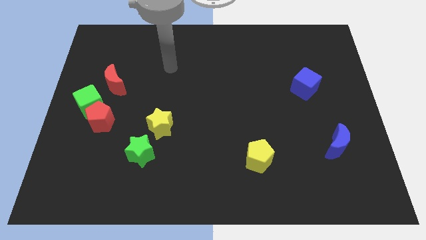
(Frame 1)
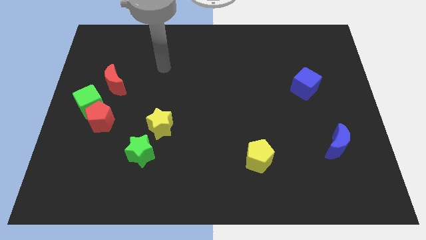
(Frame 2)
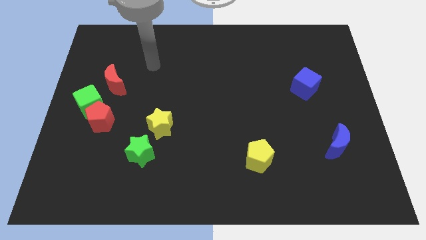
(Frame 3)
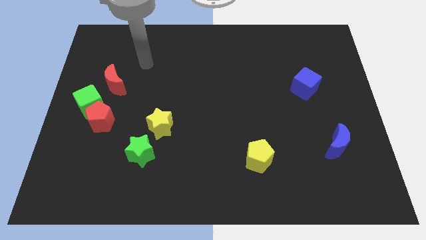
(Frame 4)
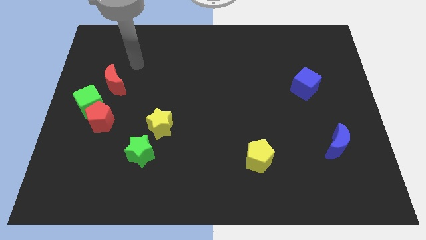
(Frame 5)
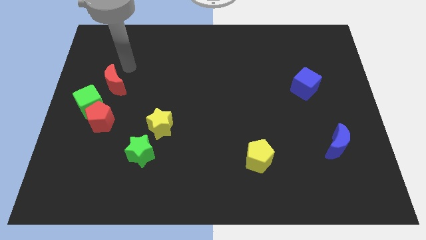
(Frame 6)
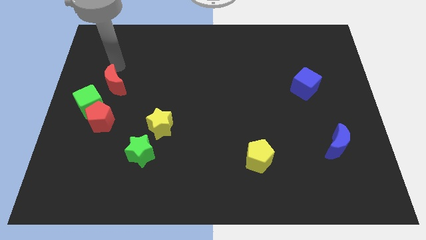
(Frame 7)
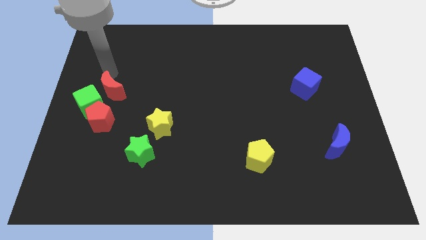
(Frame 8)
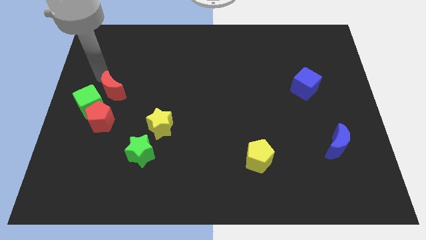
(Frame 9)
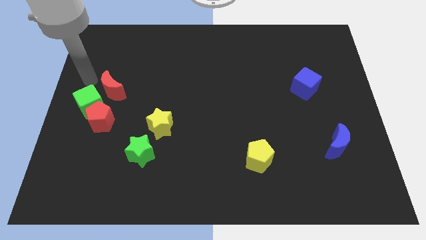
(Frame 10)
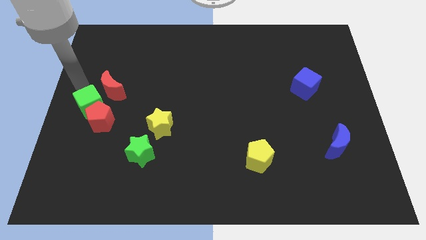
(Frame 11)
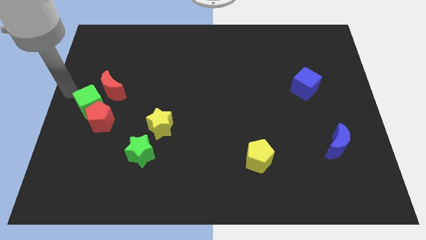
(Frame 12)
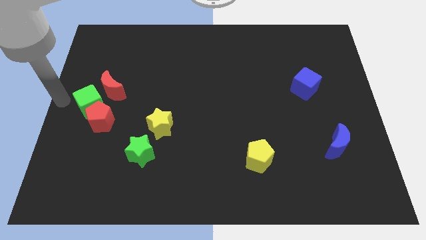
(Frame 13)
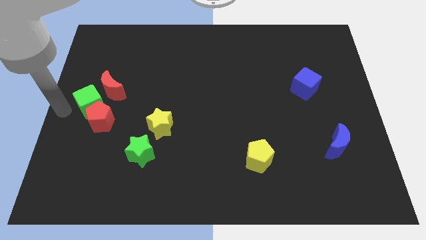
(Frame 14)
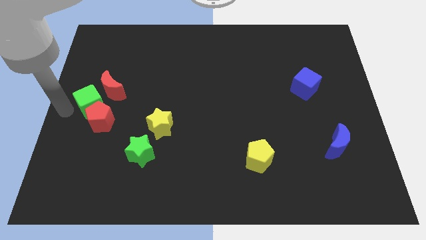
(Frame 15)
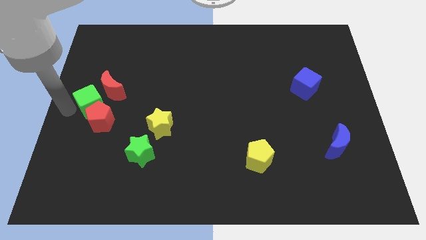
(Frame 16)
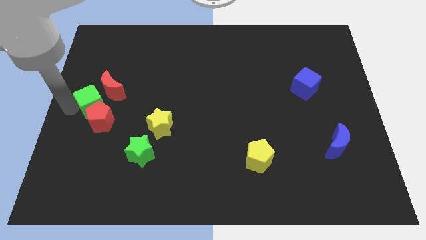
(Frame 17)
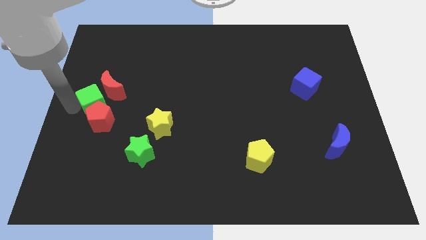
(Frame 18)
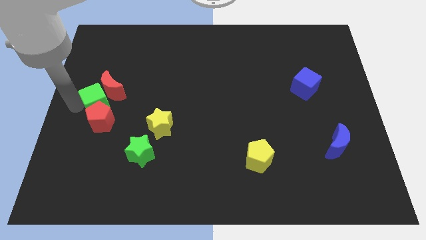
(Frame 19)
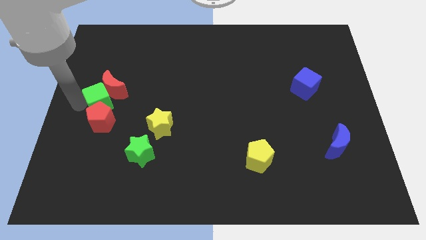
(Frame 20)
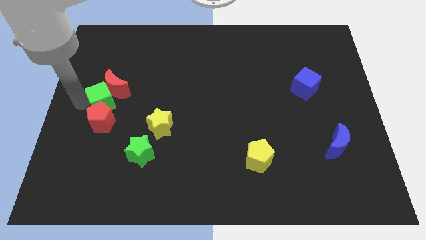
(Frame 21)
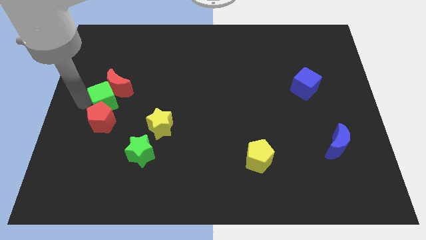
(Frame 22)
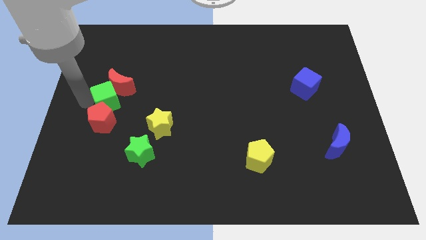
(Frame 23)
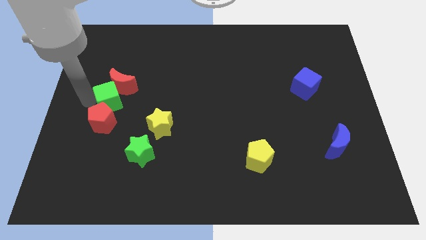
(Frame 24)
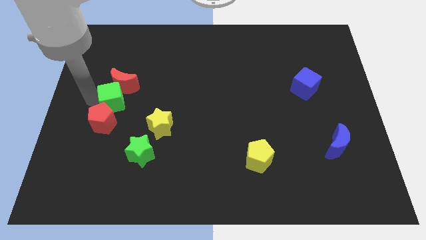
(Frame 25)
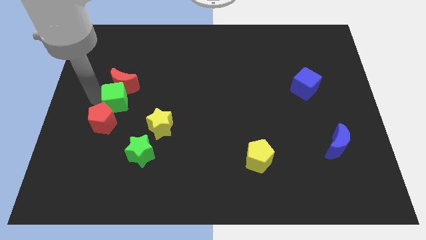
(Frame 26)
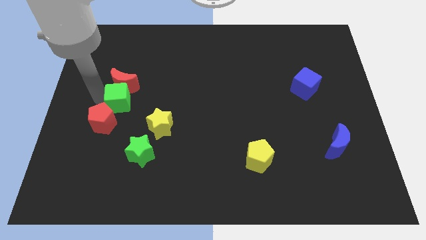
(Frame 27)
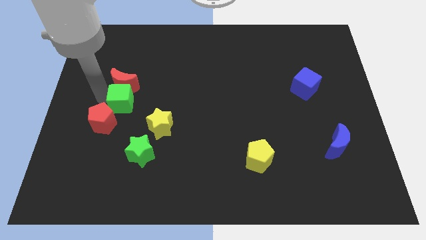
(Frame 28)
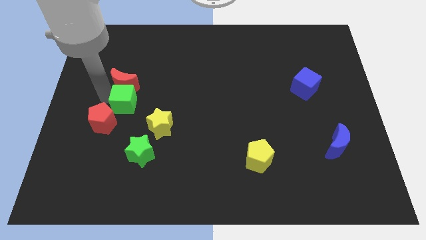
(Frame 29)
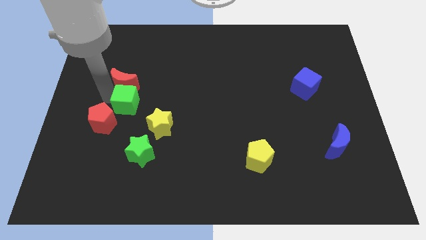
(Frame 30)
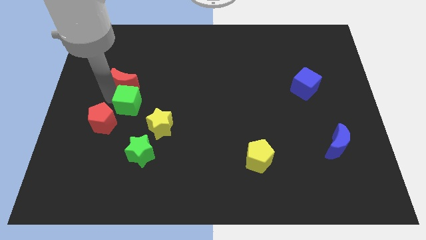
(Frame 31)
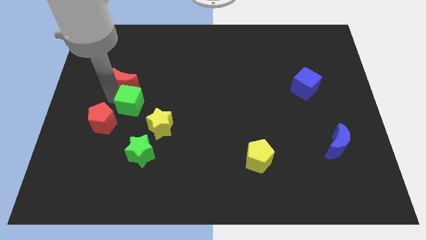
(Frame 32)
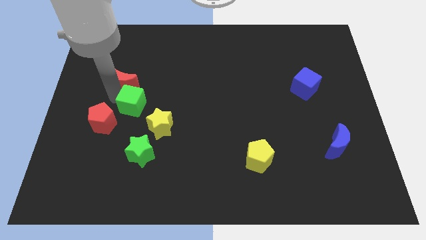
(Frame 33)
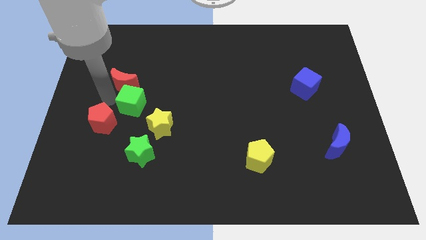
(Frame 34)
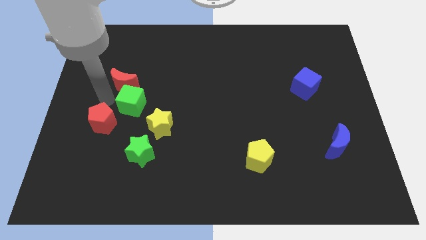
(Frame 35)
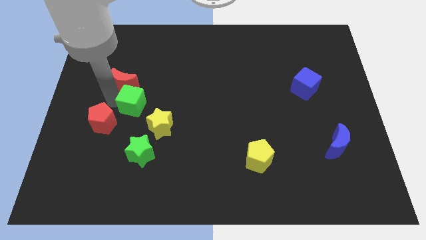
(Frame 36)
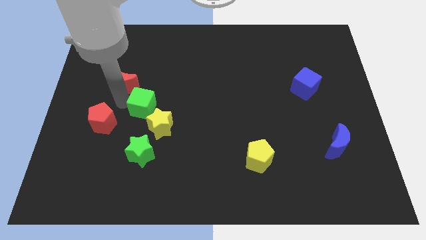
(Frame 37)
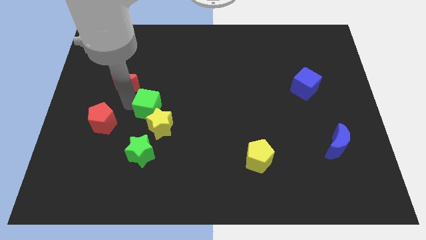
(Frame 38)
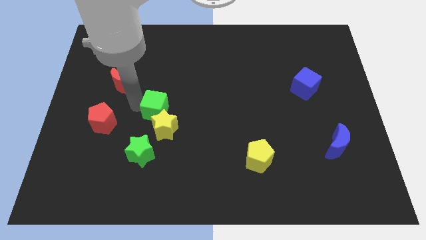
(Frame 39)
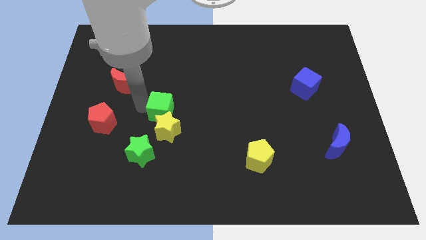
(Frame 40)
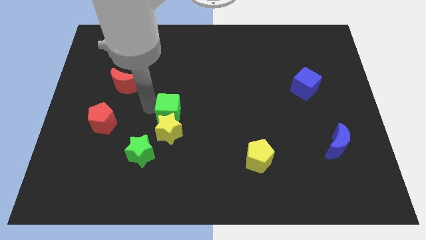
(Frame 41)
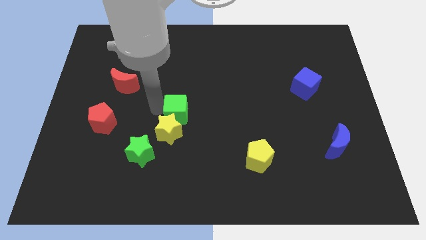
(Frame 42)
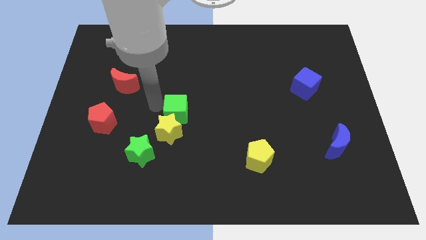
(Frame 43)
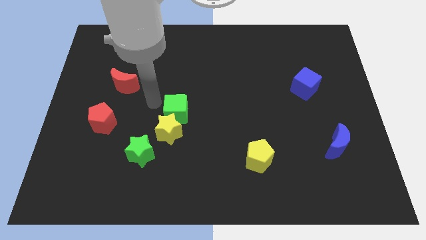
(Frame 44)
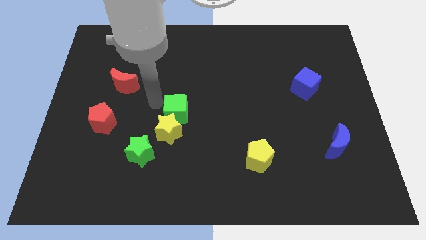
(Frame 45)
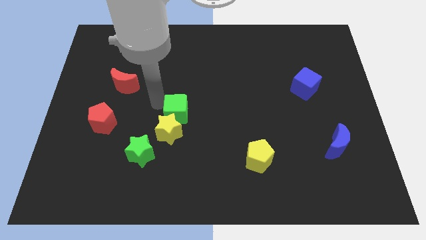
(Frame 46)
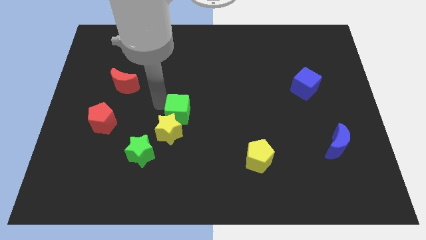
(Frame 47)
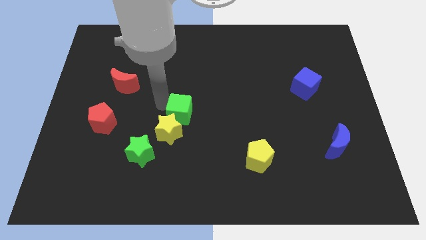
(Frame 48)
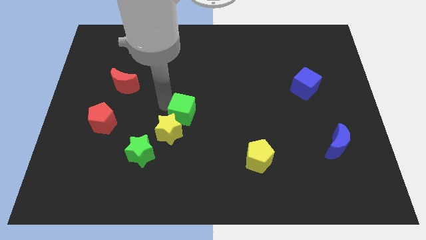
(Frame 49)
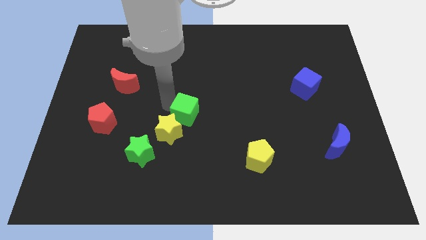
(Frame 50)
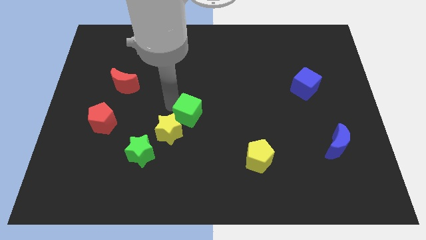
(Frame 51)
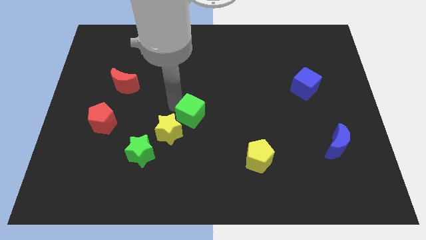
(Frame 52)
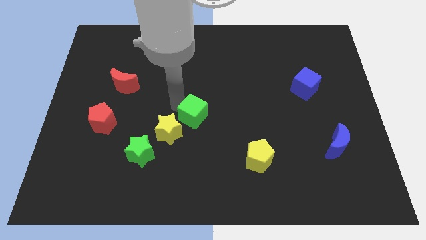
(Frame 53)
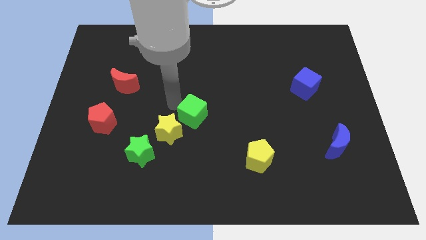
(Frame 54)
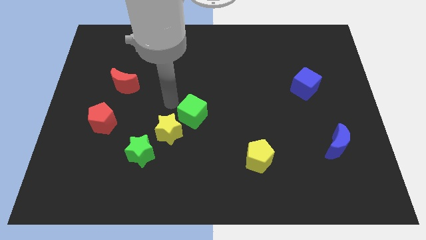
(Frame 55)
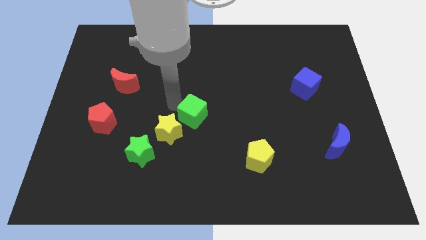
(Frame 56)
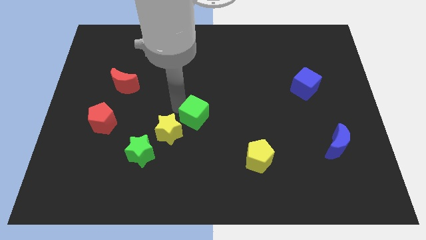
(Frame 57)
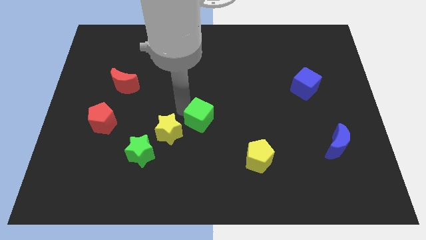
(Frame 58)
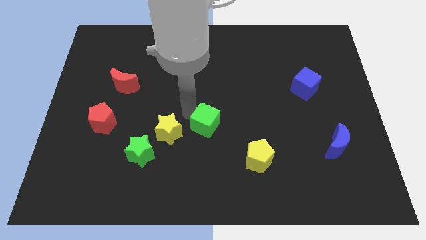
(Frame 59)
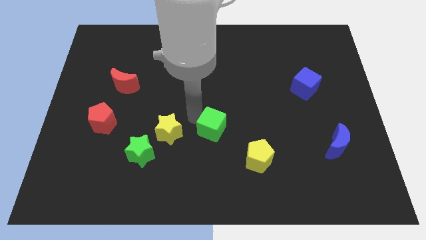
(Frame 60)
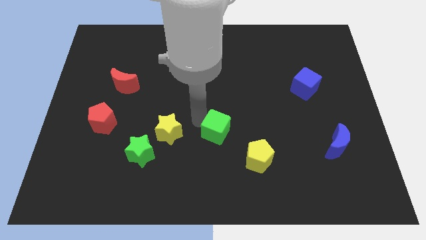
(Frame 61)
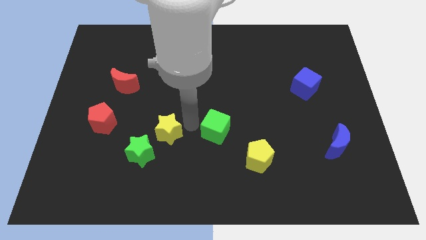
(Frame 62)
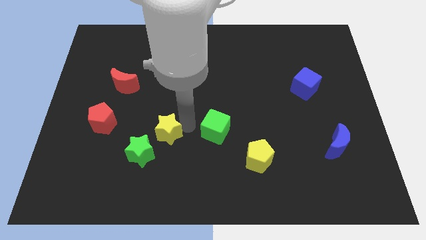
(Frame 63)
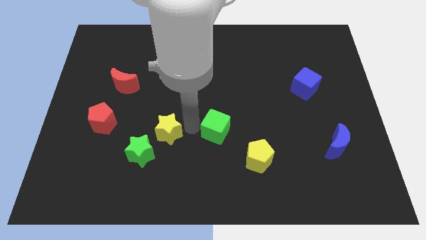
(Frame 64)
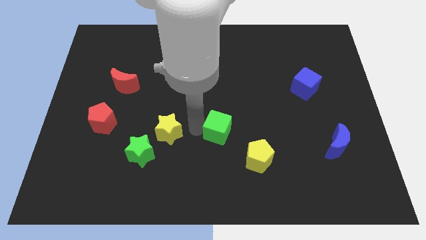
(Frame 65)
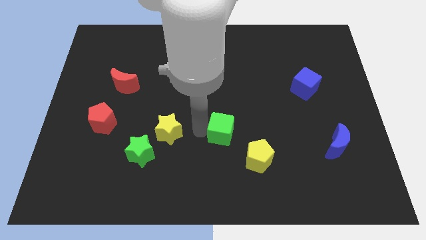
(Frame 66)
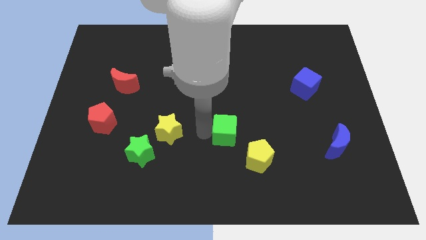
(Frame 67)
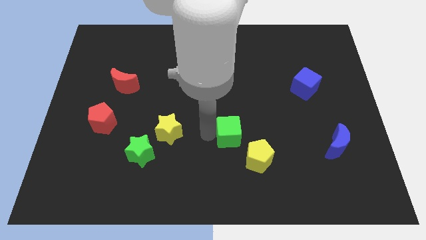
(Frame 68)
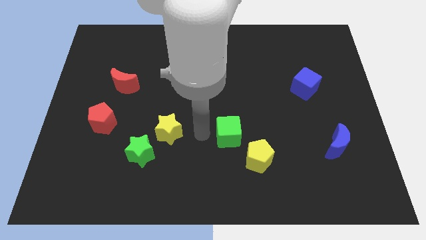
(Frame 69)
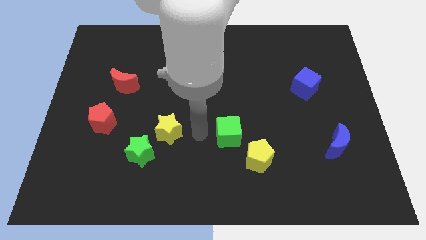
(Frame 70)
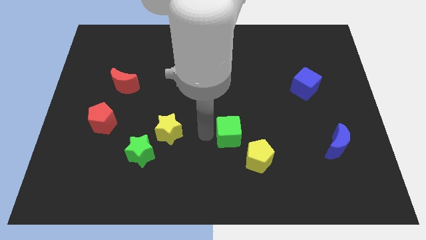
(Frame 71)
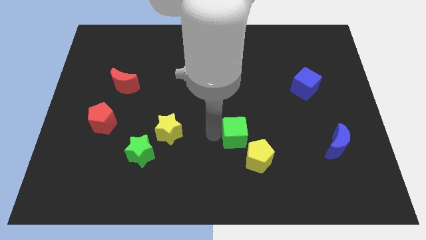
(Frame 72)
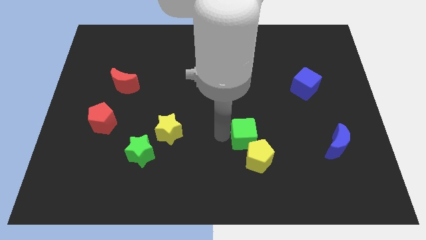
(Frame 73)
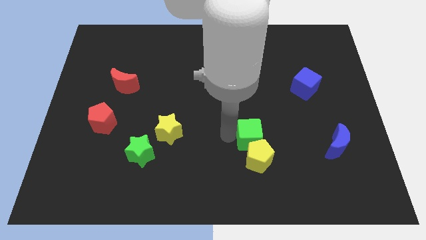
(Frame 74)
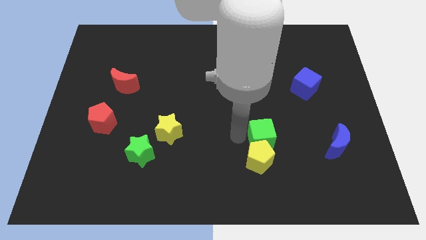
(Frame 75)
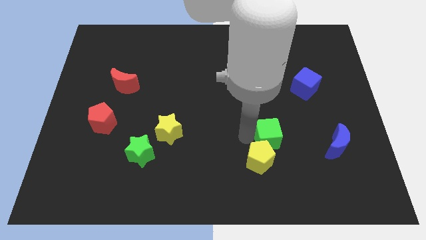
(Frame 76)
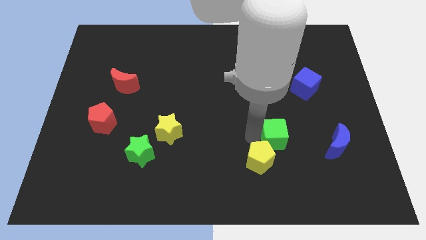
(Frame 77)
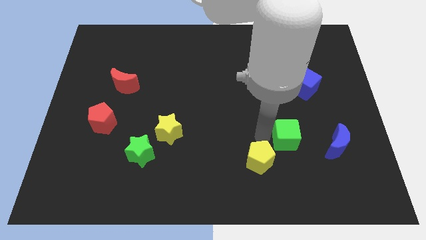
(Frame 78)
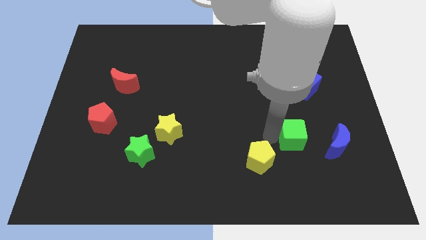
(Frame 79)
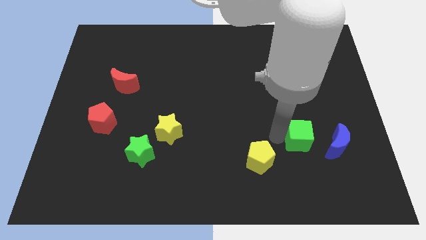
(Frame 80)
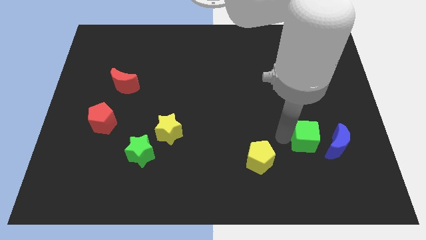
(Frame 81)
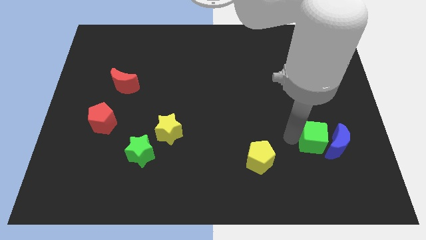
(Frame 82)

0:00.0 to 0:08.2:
put the green cube to the blue moon
